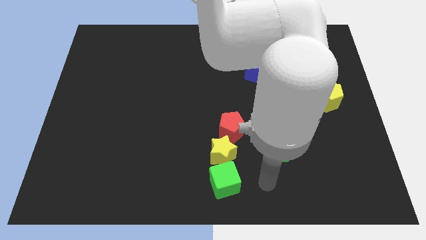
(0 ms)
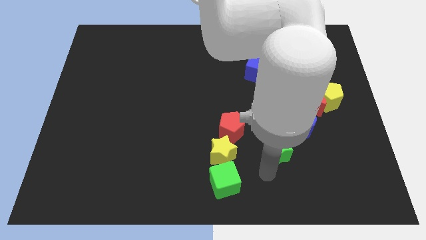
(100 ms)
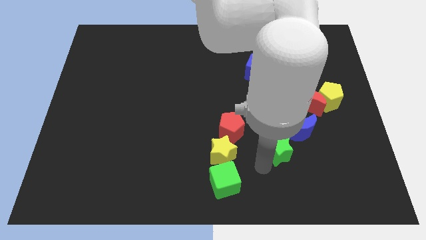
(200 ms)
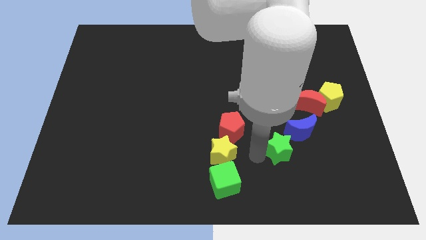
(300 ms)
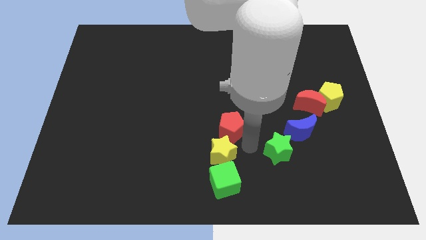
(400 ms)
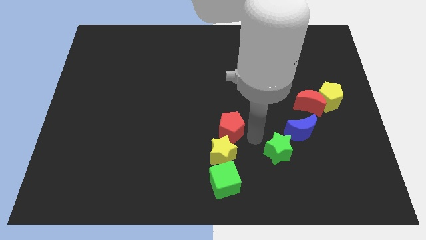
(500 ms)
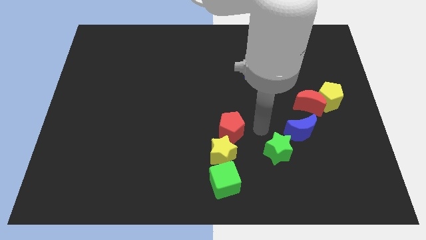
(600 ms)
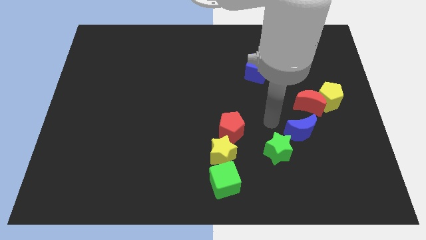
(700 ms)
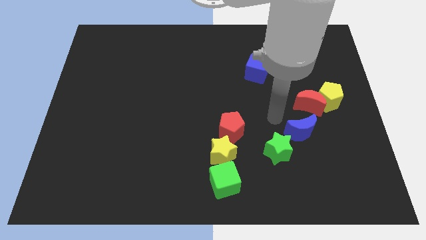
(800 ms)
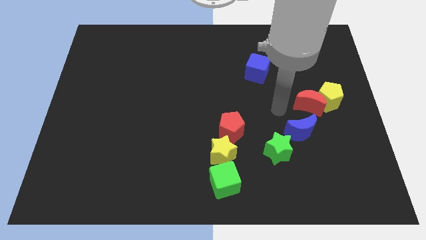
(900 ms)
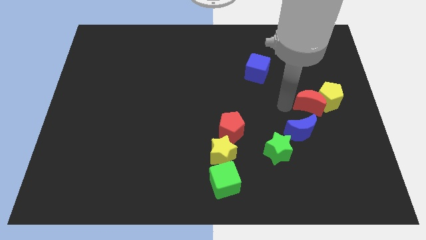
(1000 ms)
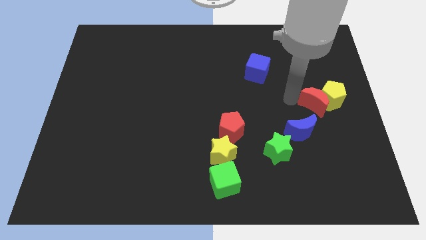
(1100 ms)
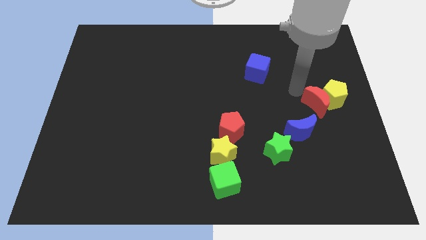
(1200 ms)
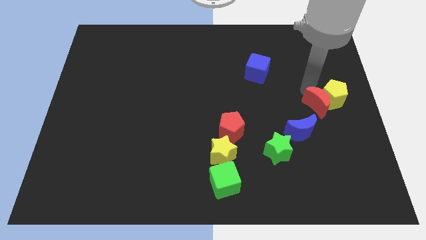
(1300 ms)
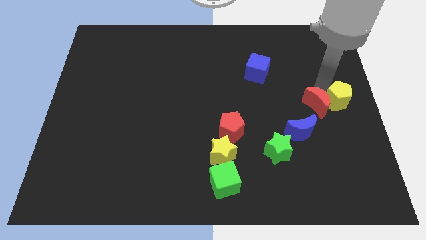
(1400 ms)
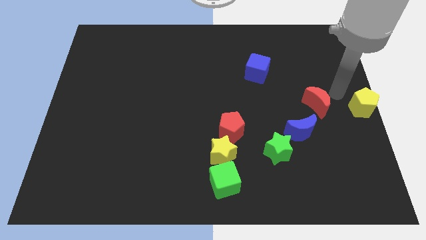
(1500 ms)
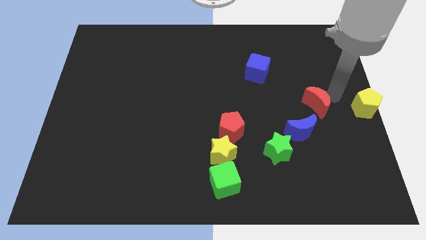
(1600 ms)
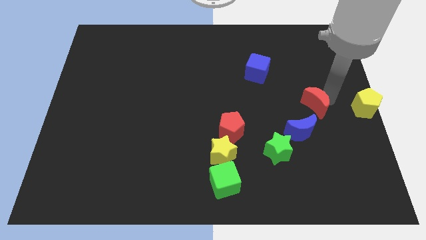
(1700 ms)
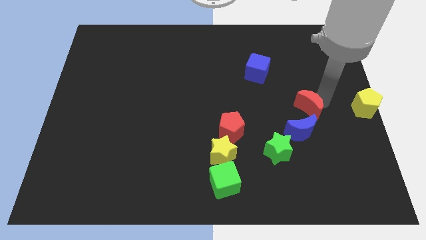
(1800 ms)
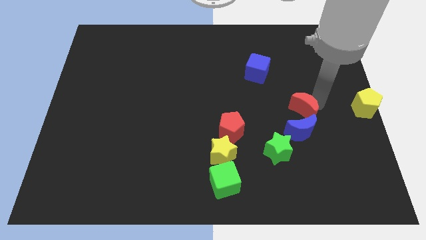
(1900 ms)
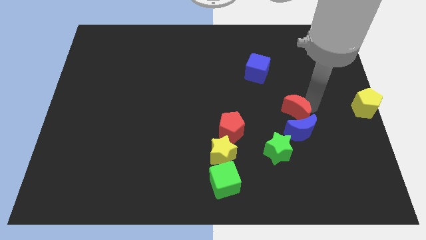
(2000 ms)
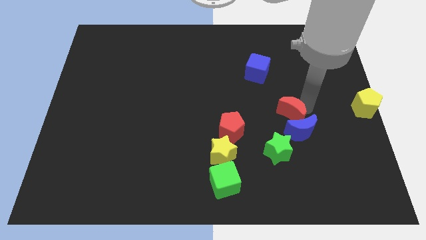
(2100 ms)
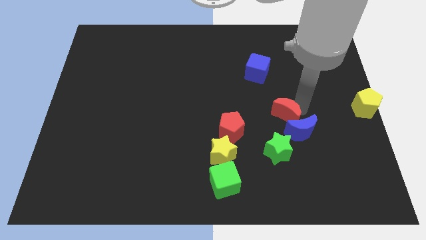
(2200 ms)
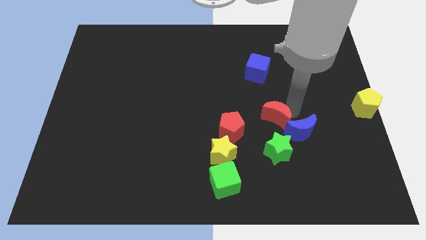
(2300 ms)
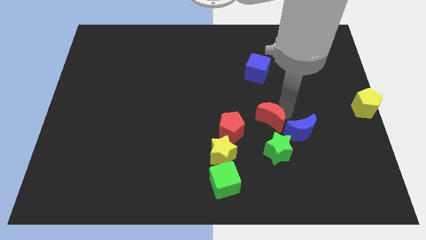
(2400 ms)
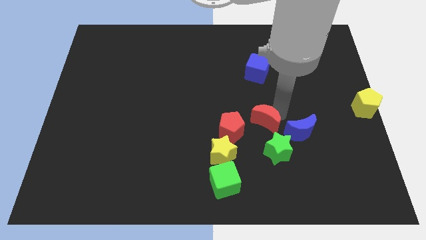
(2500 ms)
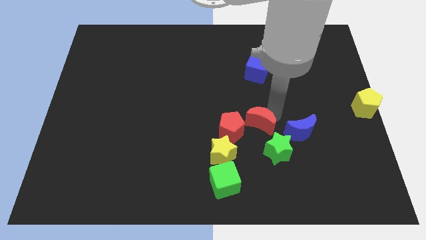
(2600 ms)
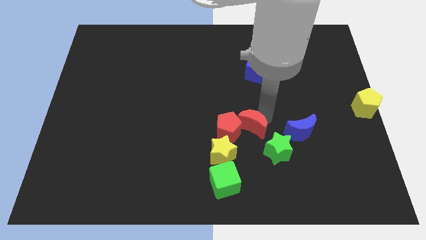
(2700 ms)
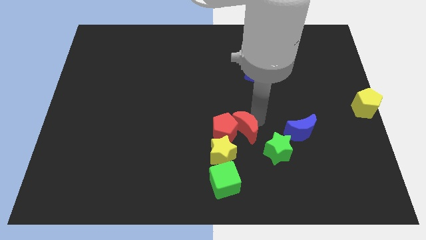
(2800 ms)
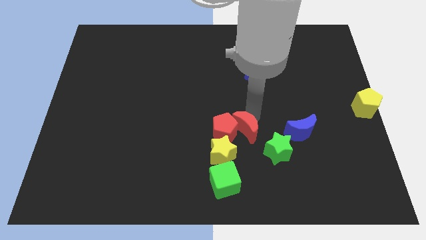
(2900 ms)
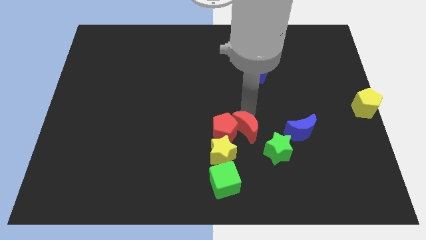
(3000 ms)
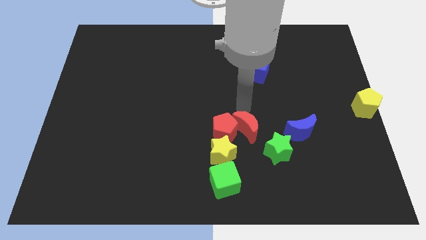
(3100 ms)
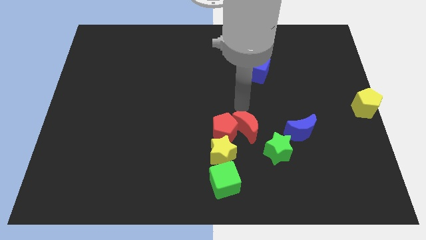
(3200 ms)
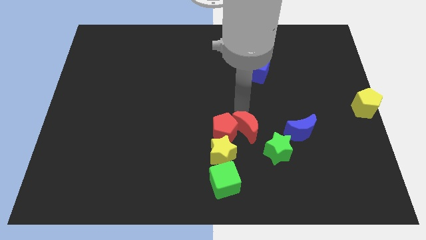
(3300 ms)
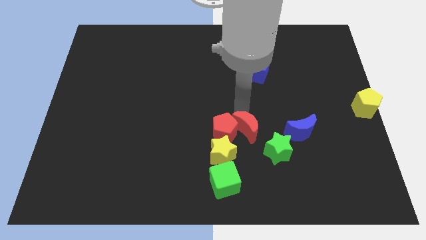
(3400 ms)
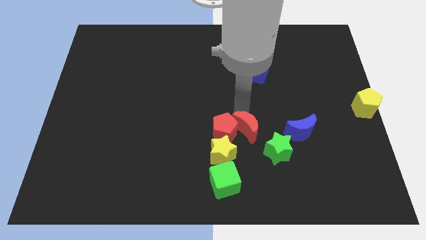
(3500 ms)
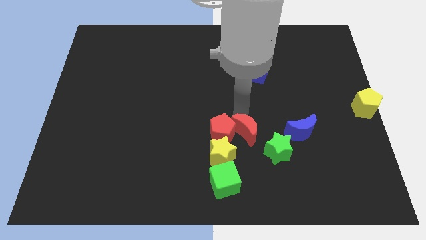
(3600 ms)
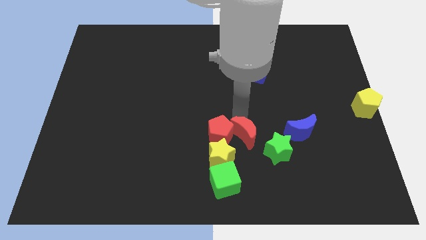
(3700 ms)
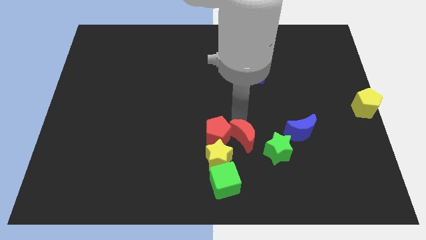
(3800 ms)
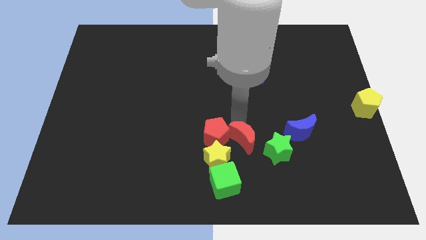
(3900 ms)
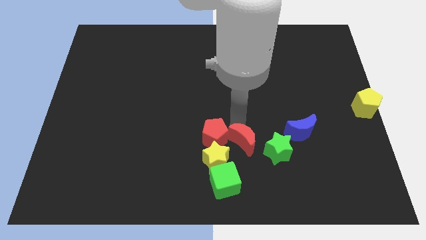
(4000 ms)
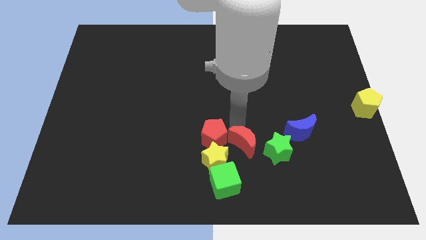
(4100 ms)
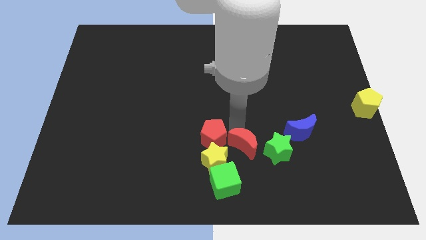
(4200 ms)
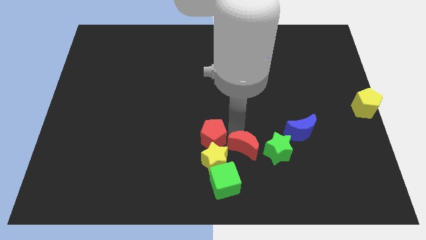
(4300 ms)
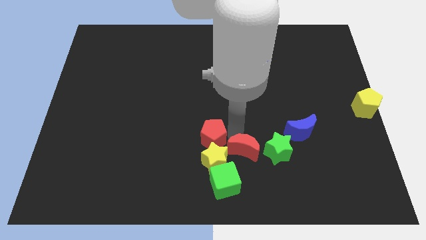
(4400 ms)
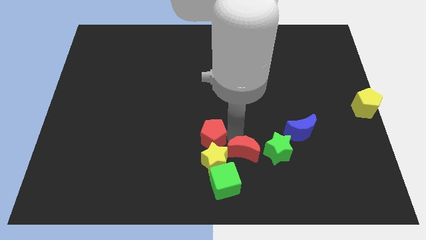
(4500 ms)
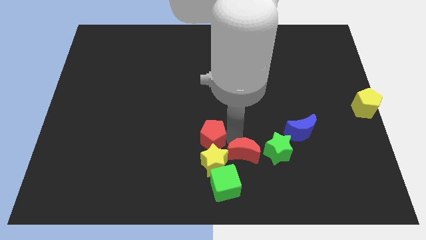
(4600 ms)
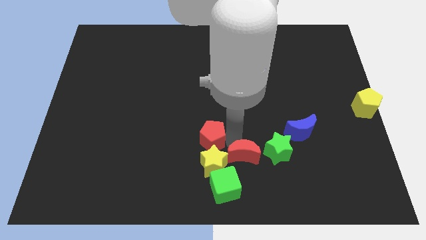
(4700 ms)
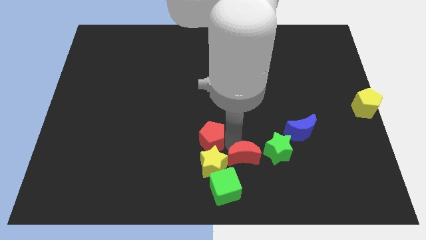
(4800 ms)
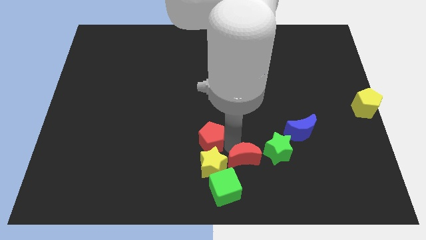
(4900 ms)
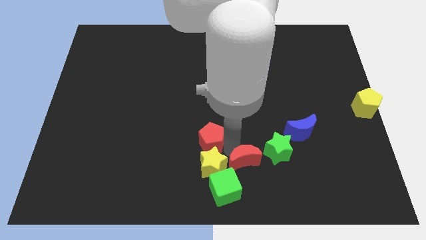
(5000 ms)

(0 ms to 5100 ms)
slide the red moon to the bottom

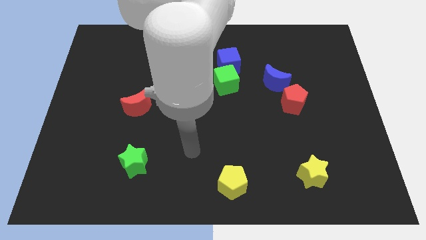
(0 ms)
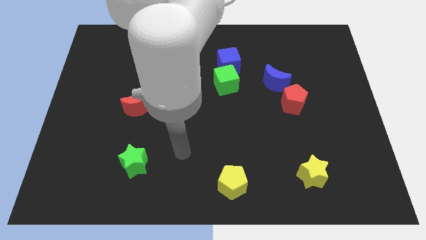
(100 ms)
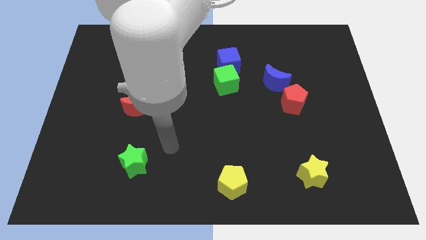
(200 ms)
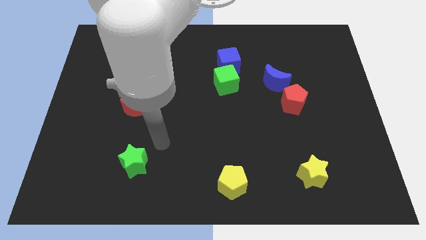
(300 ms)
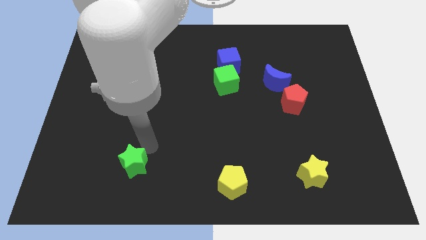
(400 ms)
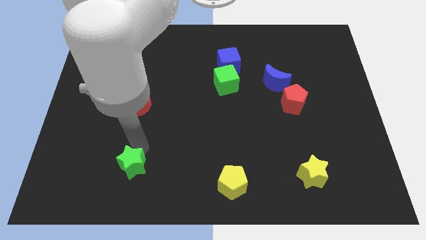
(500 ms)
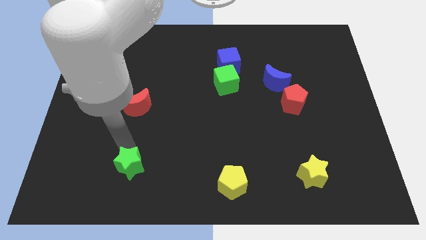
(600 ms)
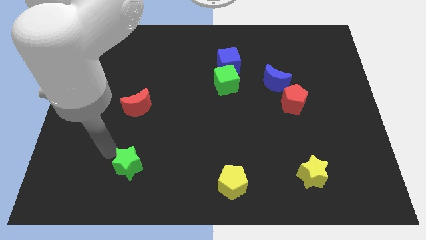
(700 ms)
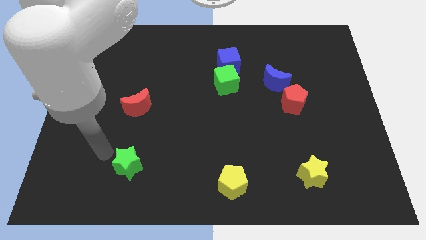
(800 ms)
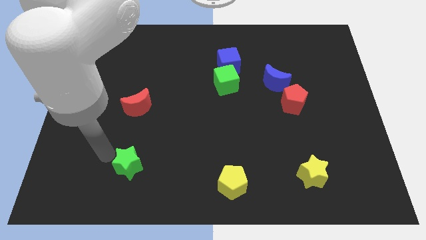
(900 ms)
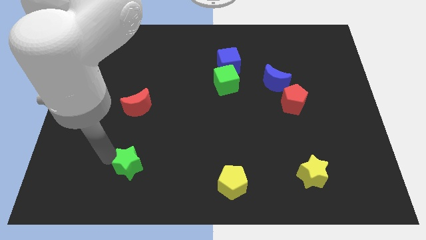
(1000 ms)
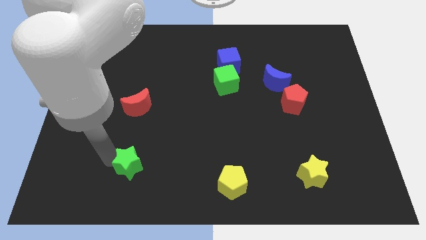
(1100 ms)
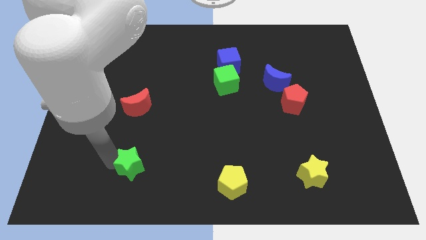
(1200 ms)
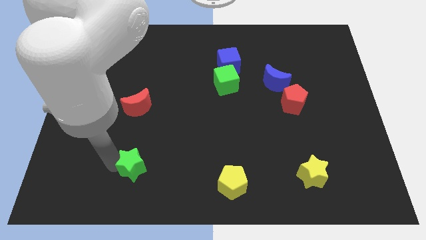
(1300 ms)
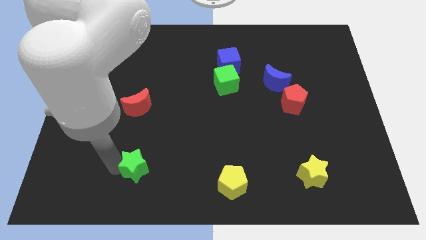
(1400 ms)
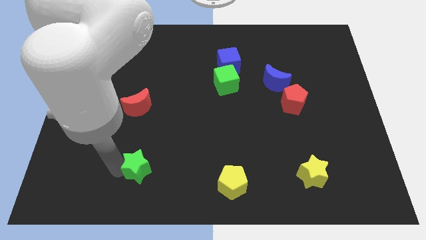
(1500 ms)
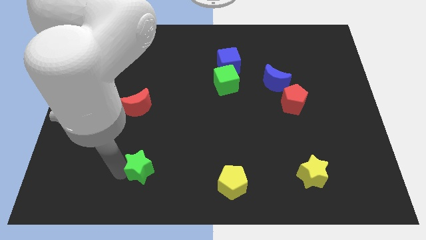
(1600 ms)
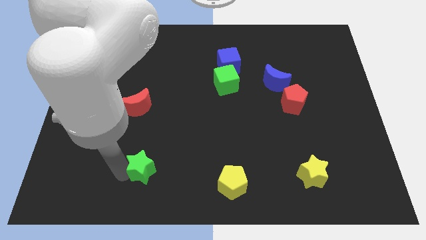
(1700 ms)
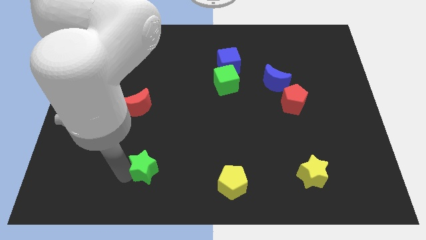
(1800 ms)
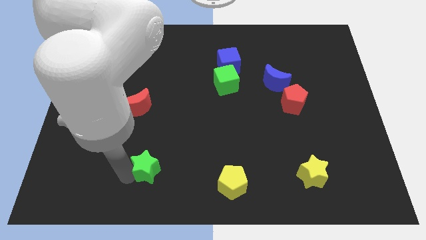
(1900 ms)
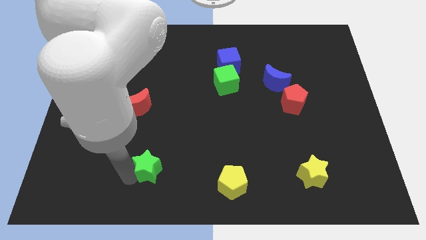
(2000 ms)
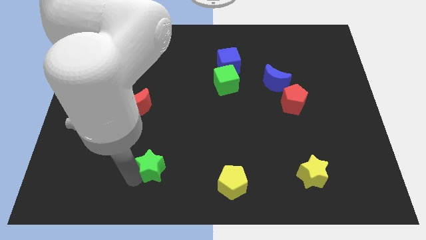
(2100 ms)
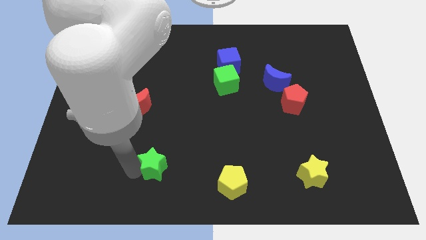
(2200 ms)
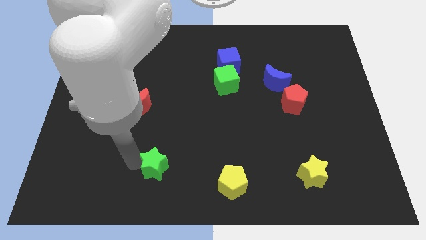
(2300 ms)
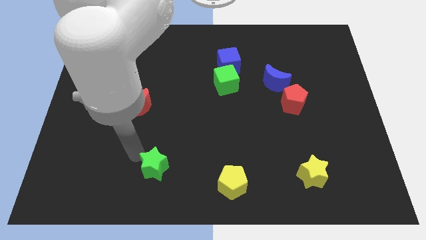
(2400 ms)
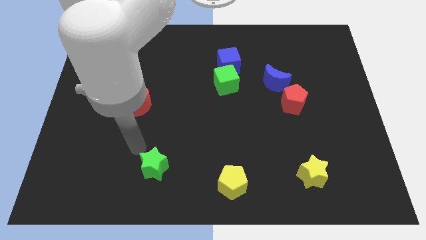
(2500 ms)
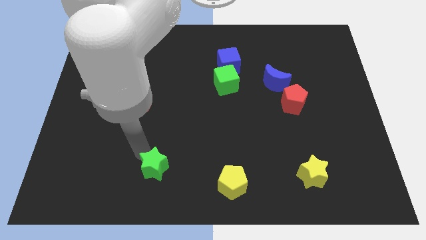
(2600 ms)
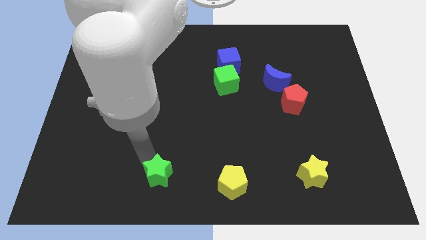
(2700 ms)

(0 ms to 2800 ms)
slide the green star to the bottom
